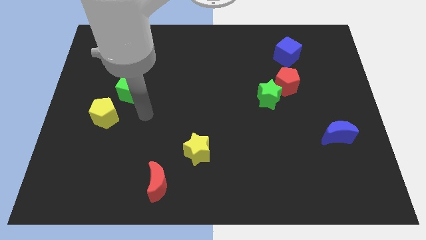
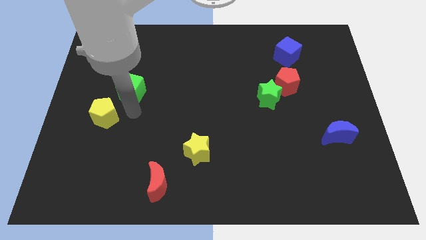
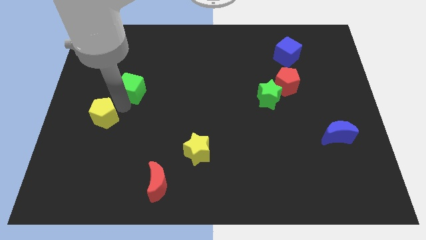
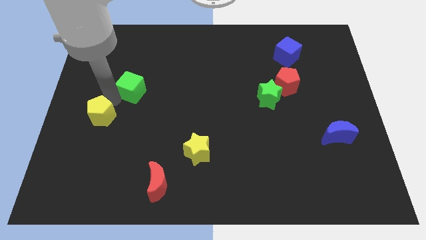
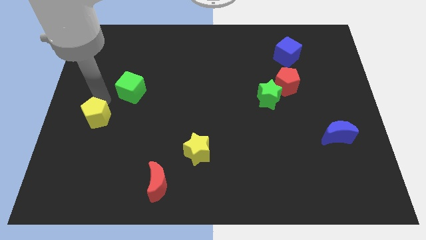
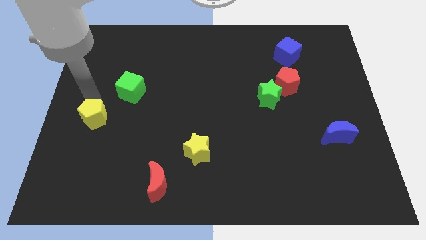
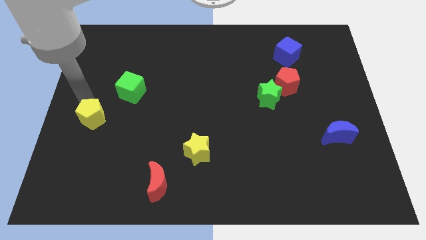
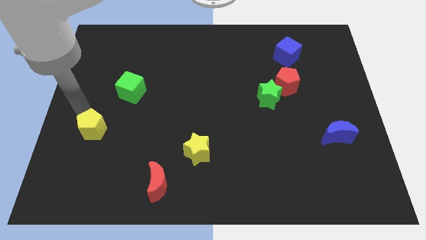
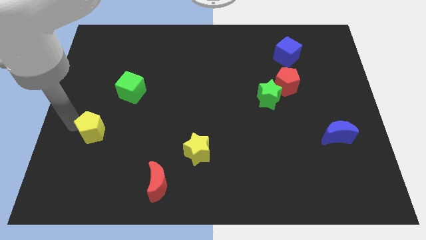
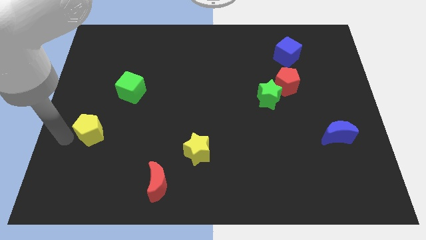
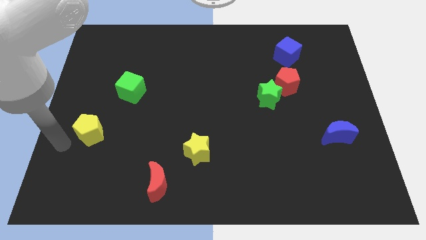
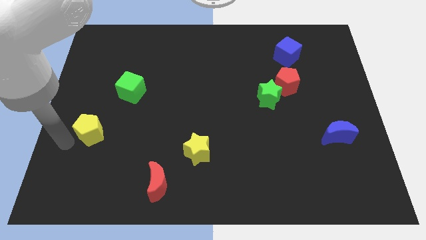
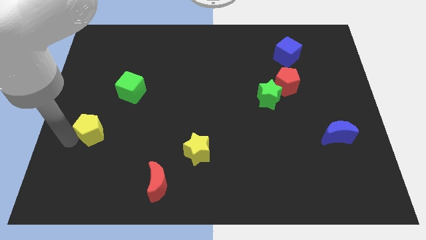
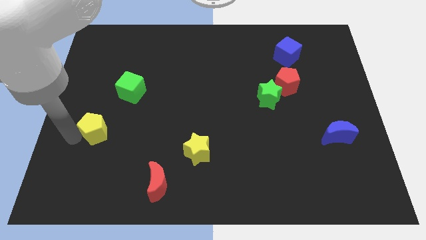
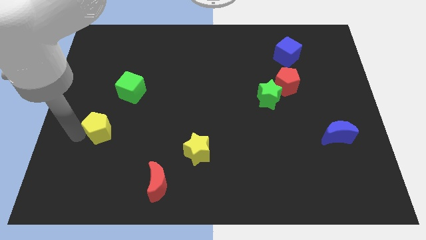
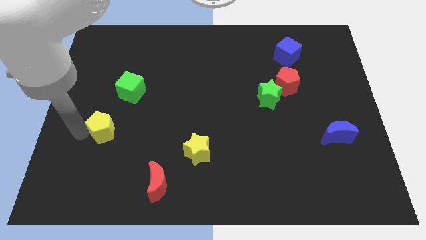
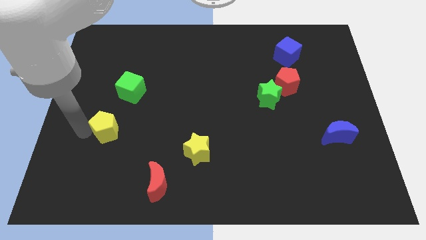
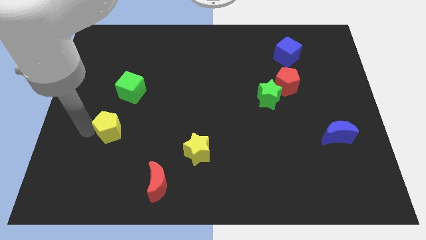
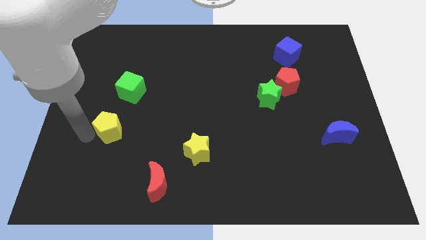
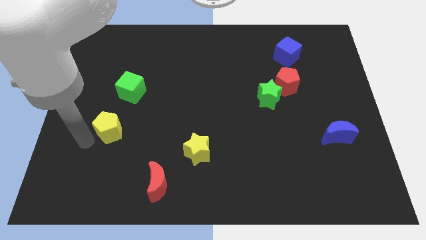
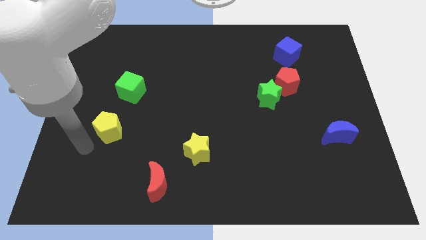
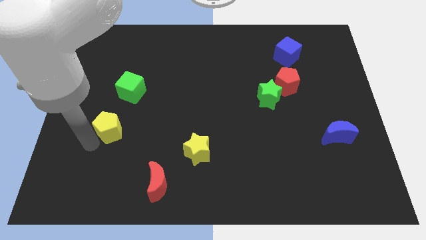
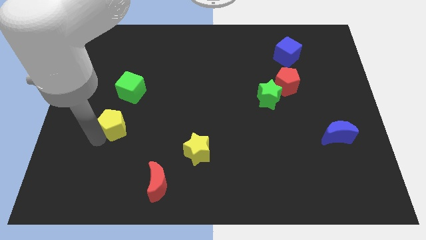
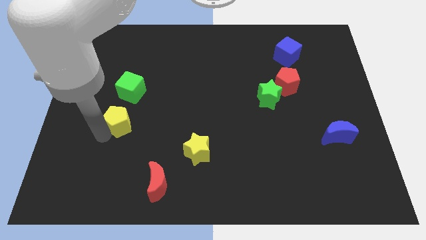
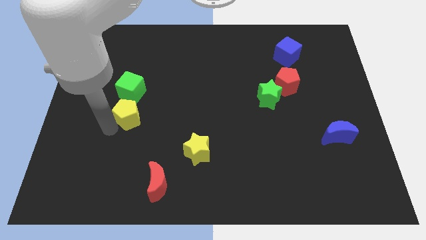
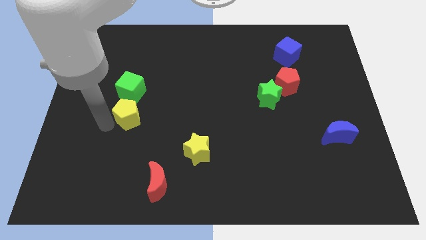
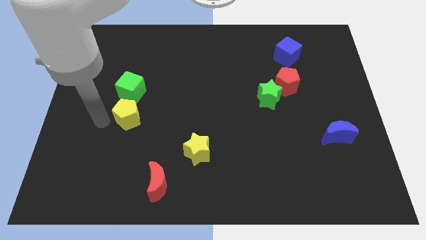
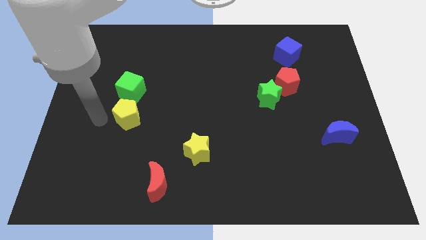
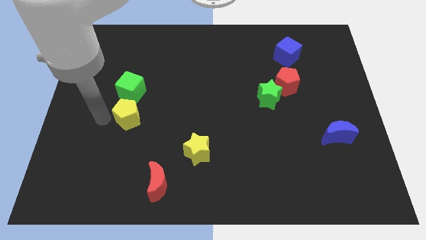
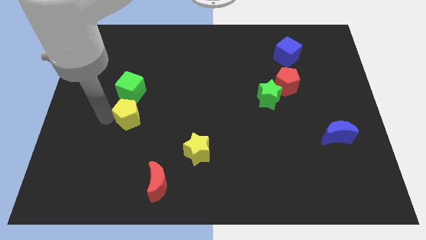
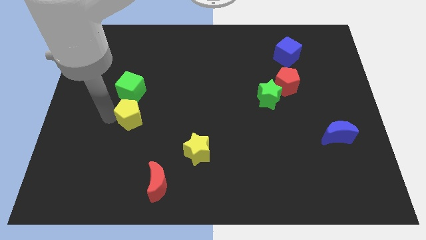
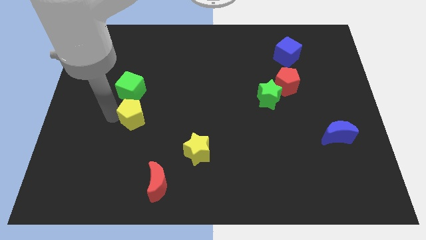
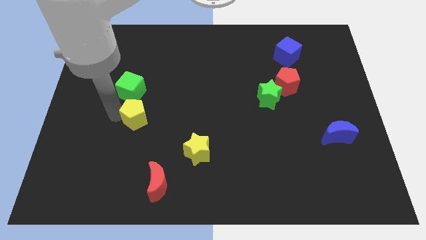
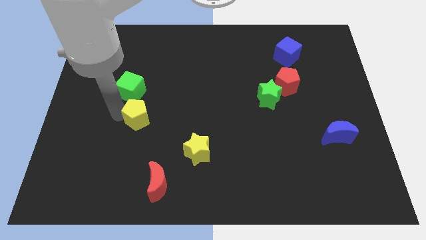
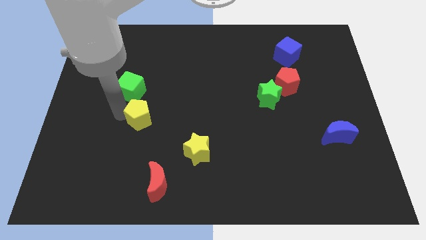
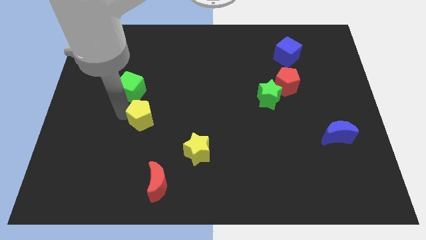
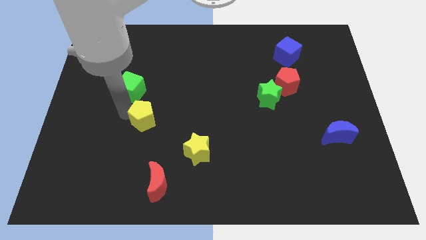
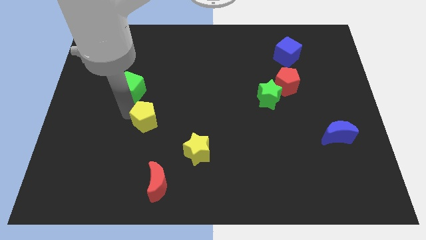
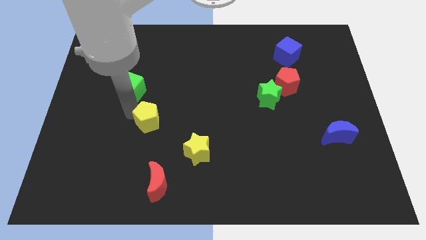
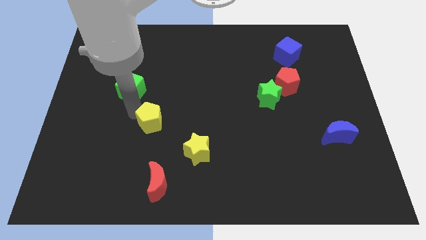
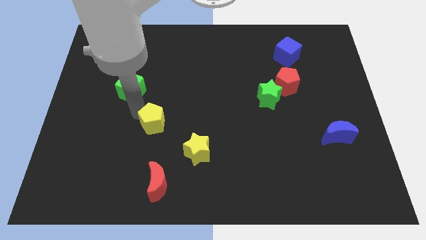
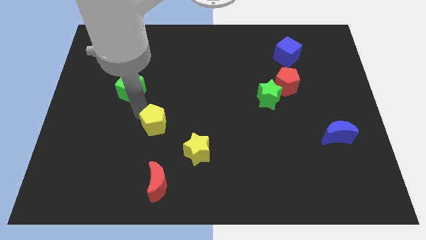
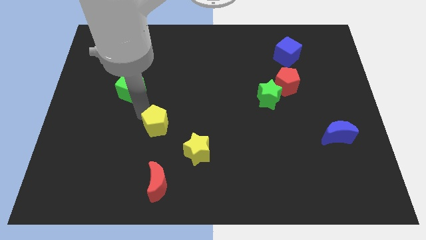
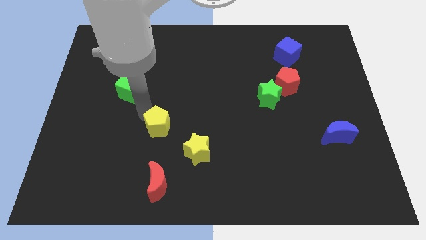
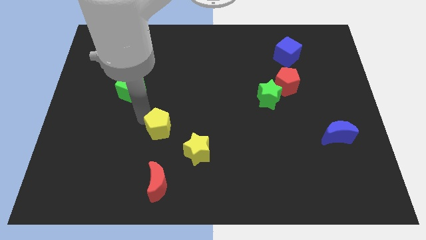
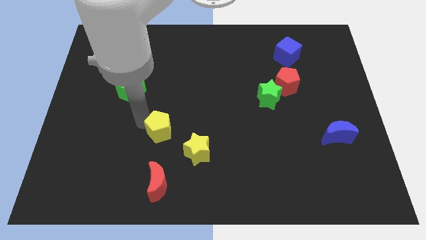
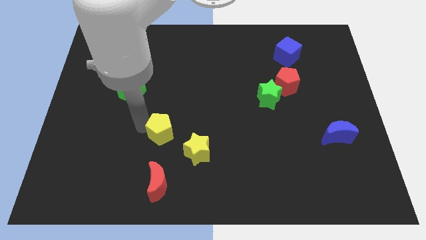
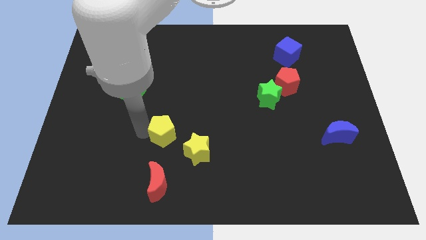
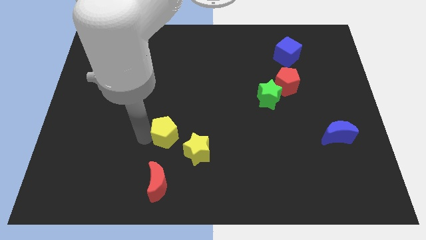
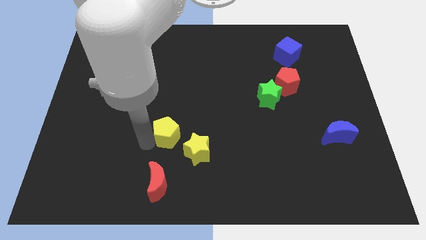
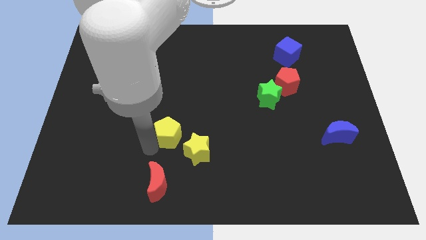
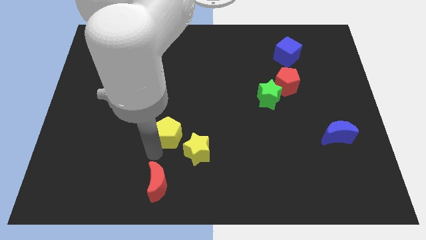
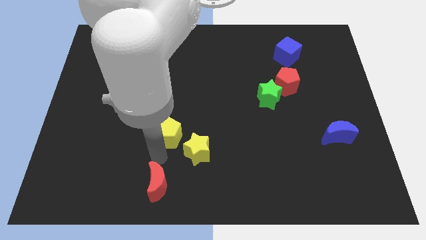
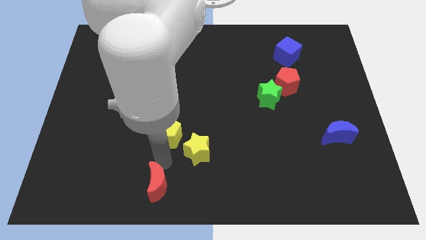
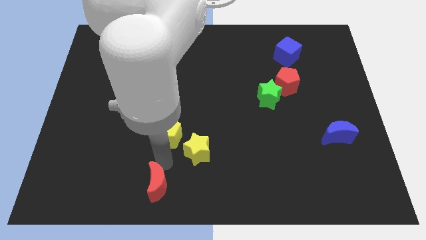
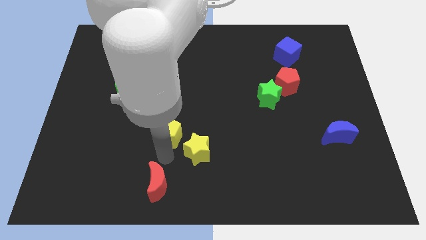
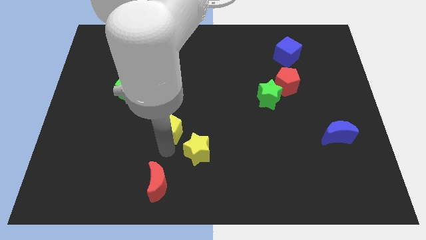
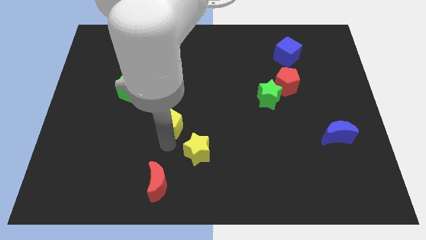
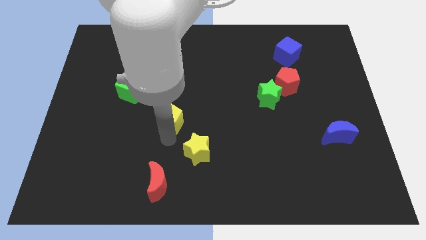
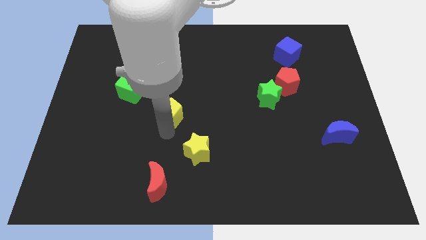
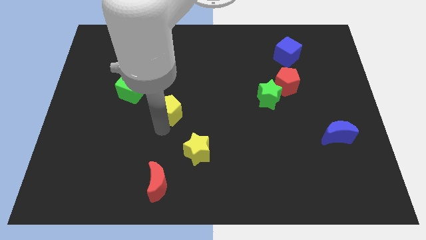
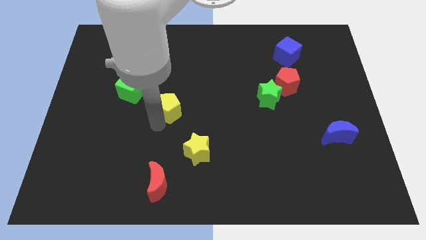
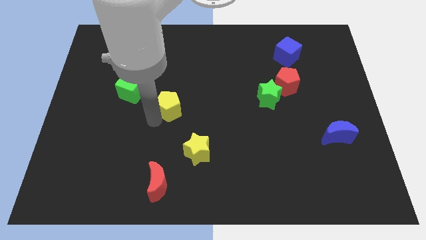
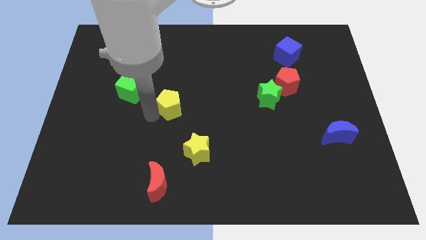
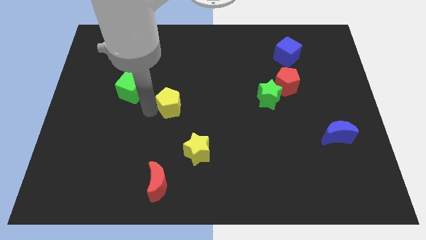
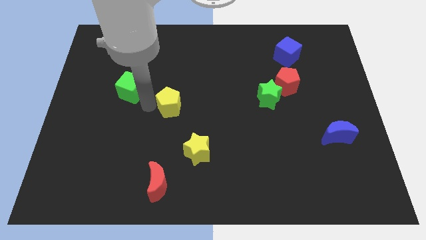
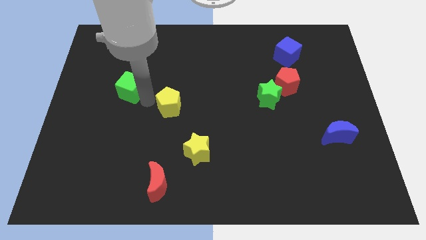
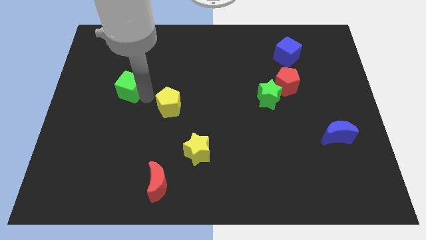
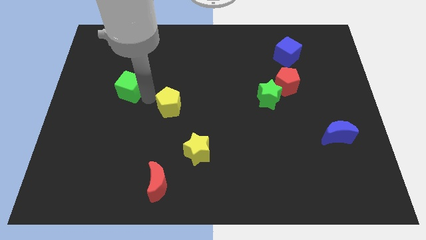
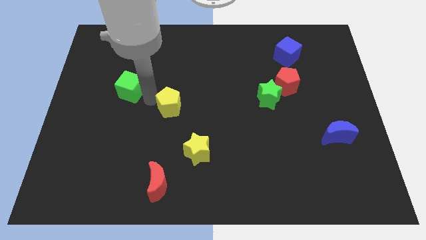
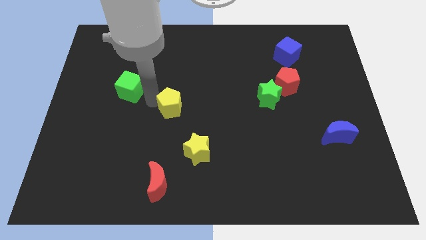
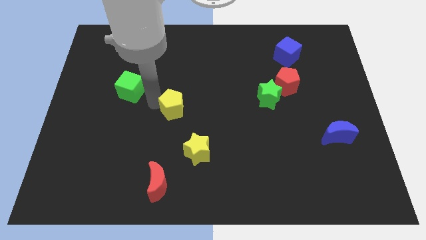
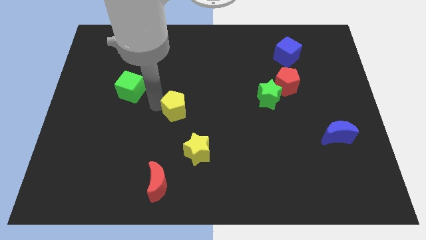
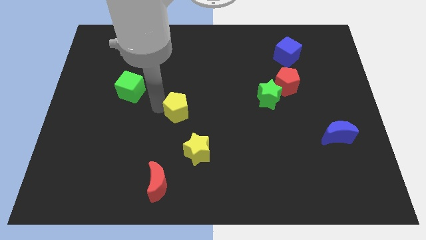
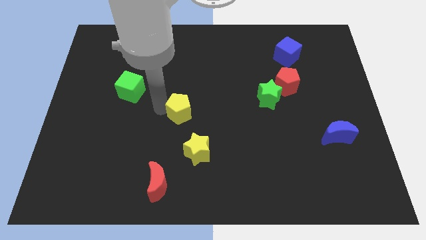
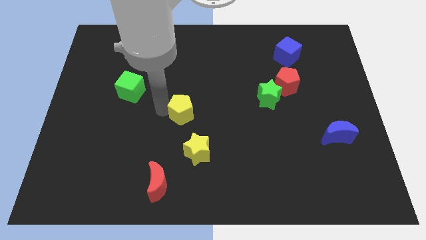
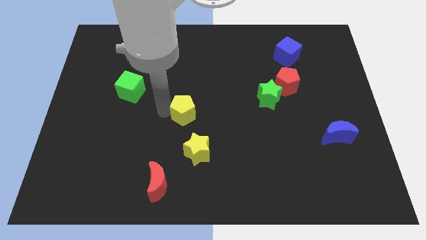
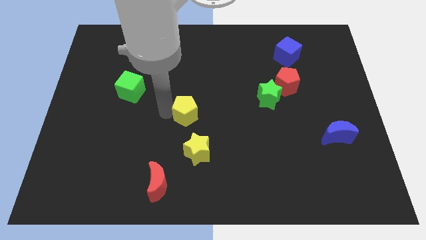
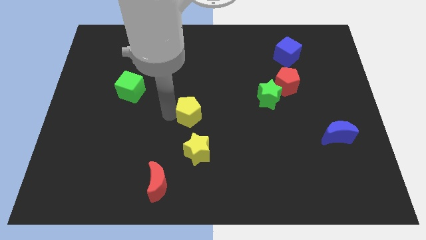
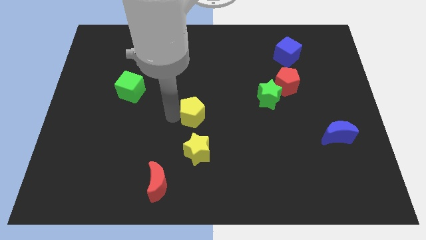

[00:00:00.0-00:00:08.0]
push the yellow pentagon to the right
